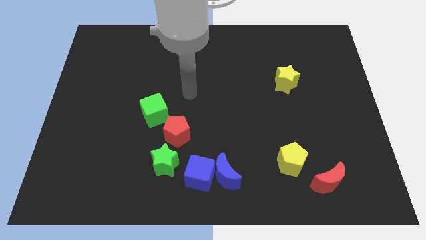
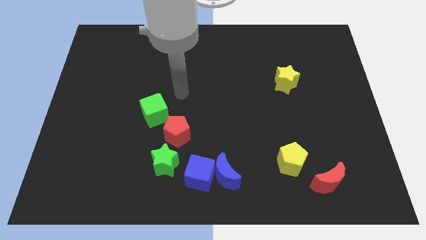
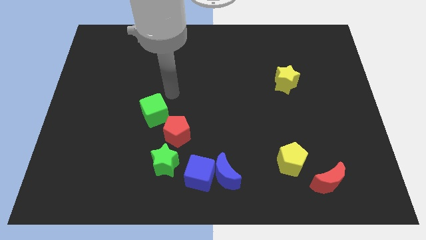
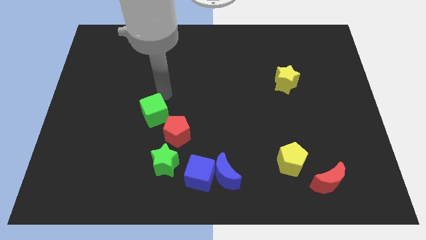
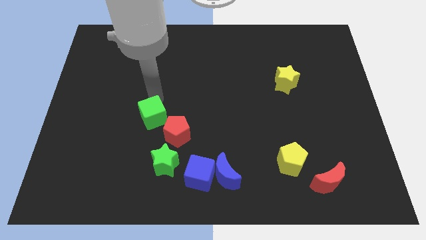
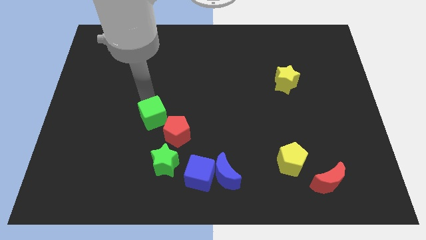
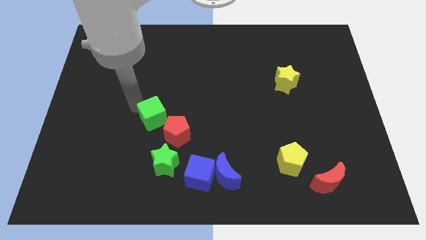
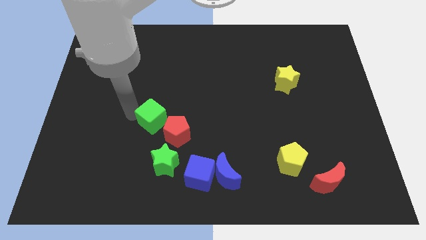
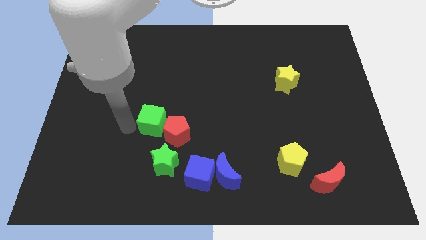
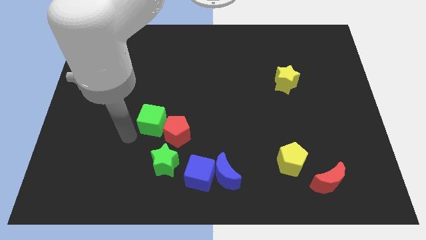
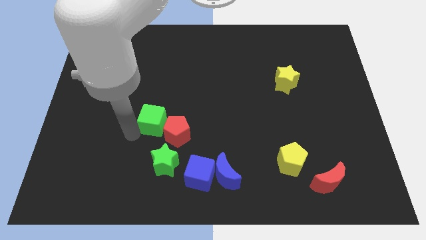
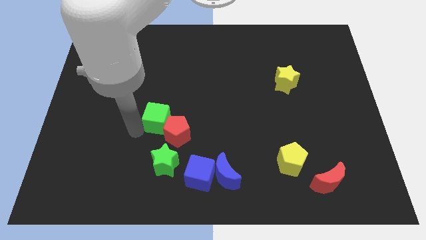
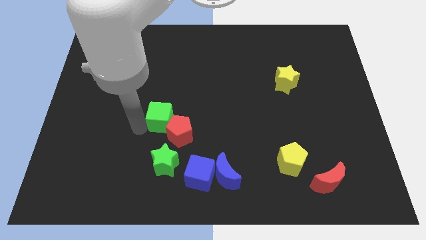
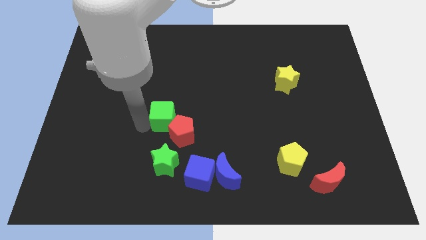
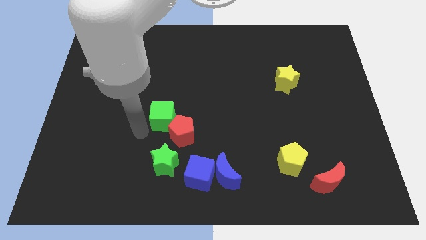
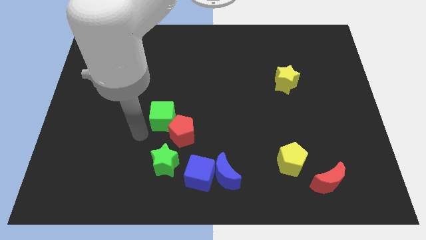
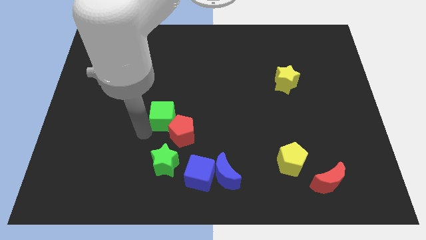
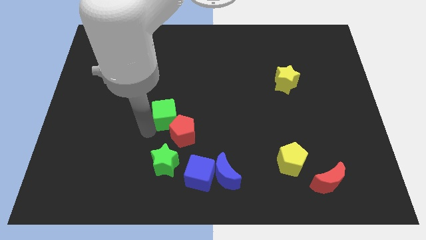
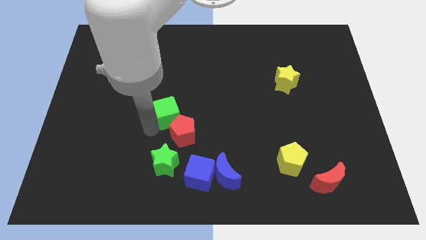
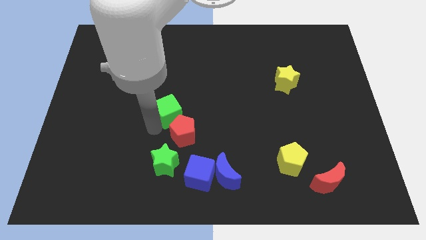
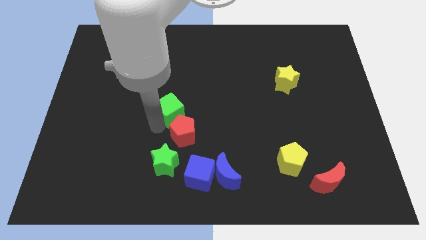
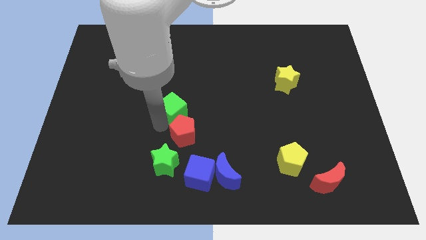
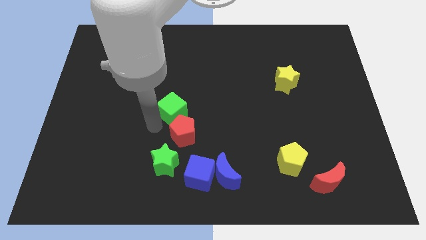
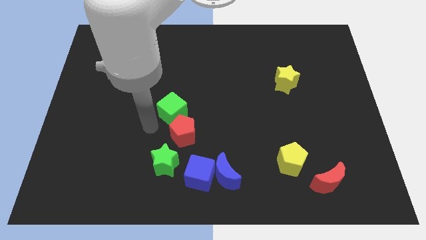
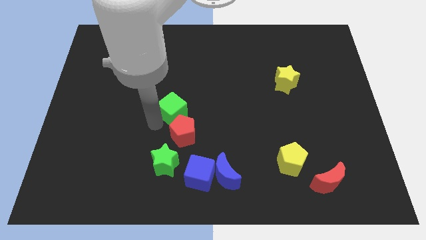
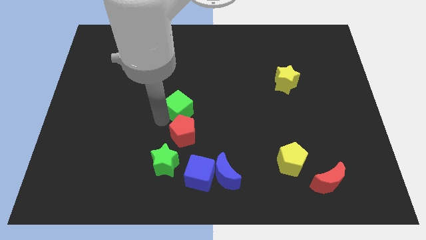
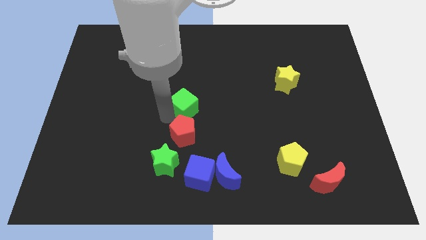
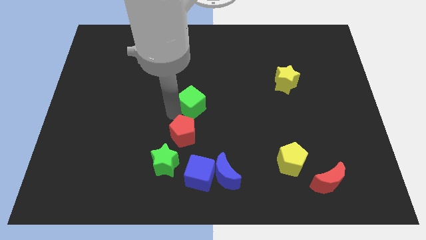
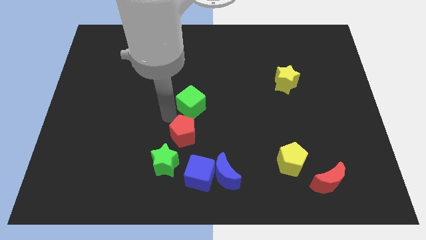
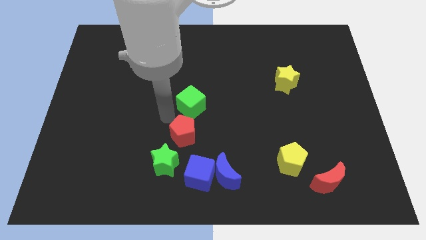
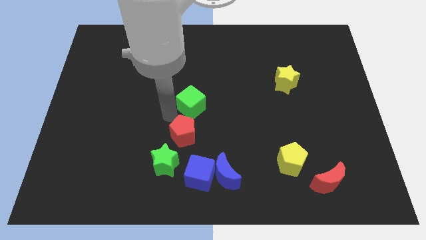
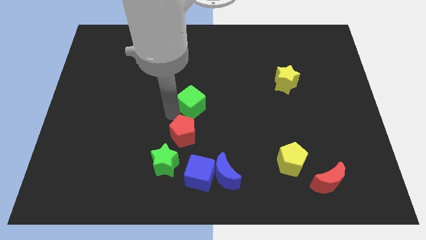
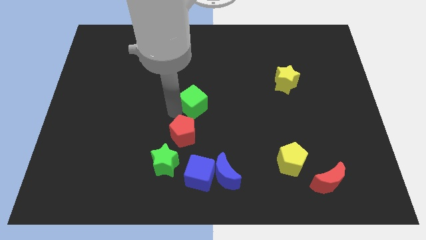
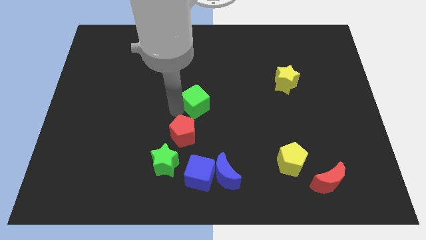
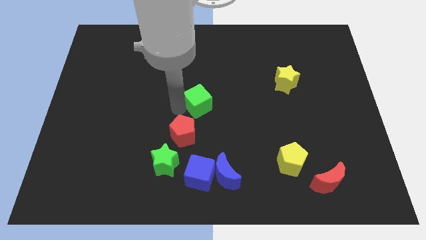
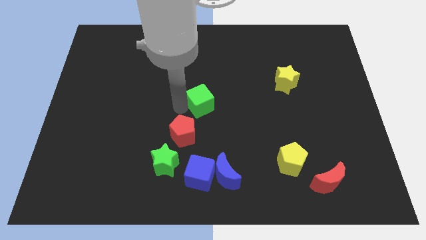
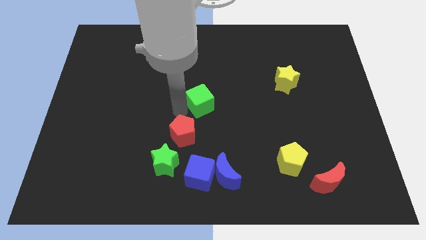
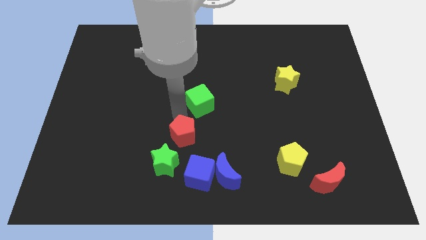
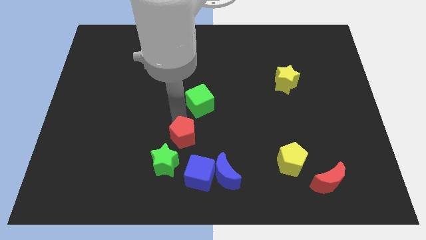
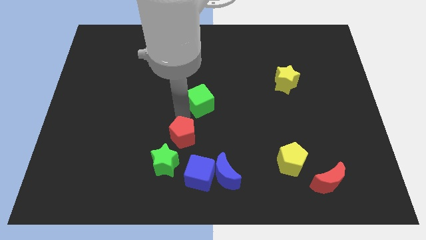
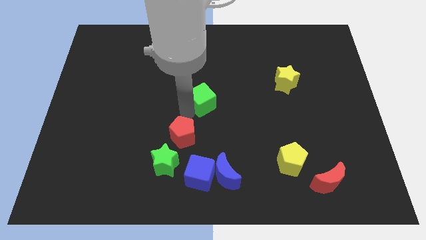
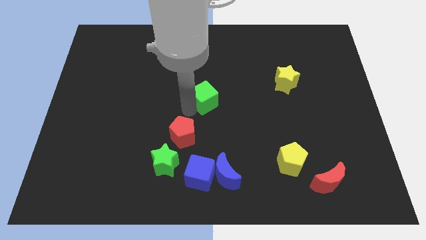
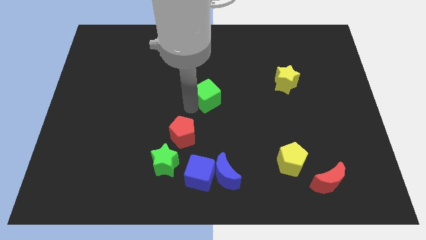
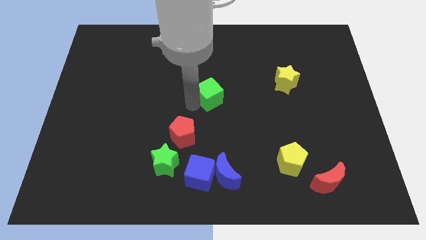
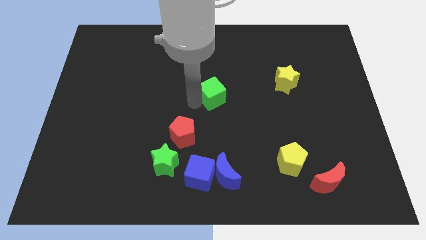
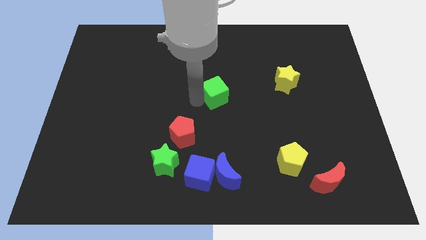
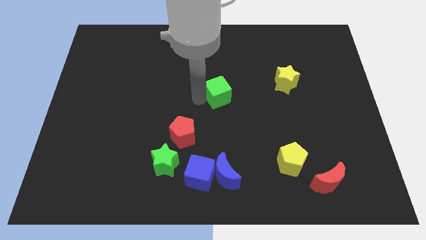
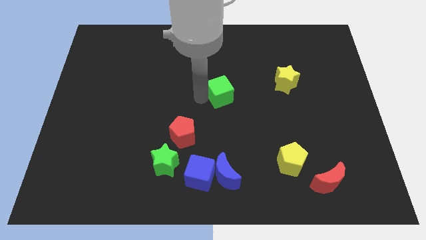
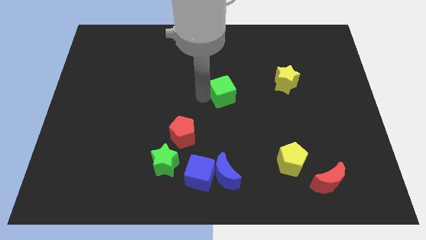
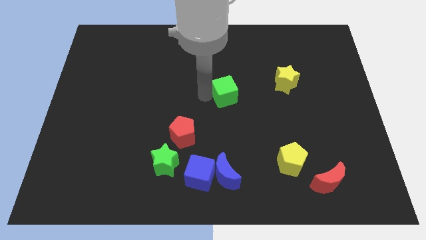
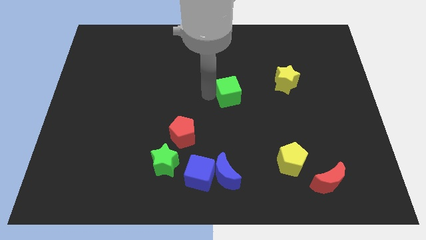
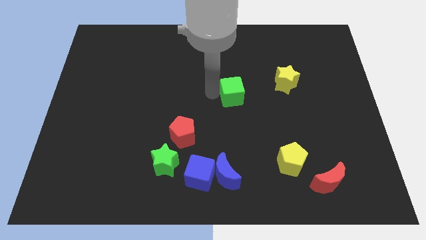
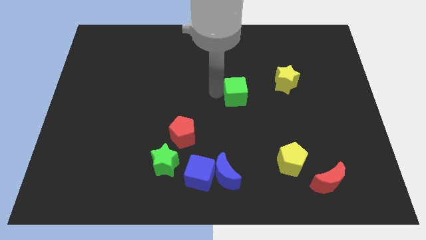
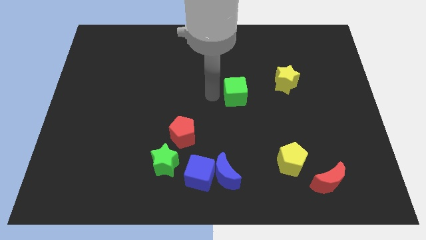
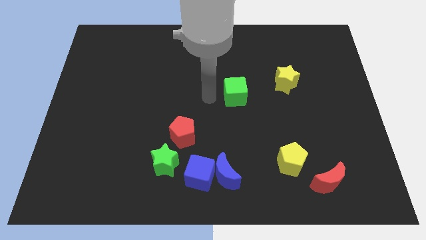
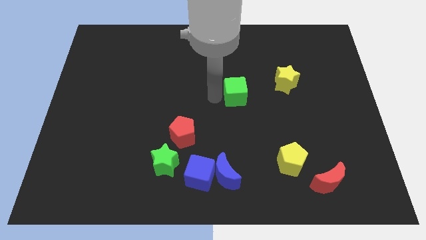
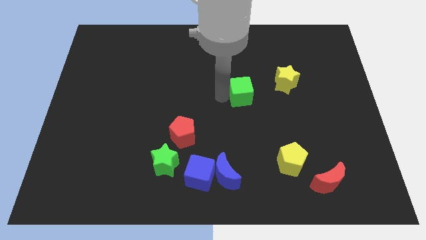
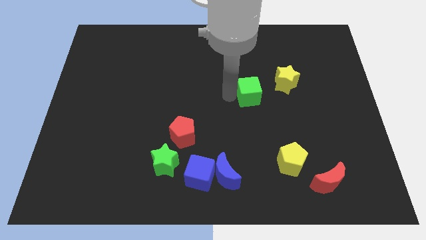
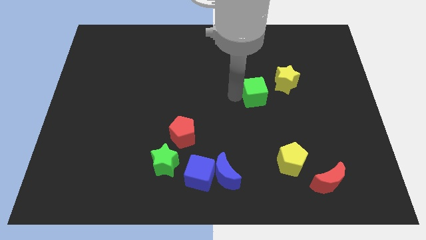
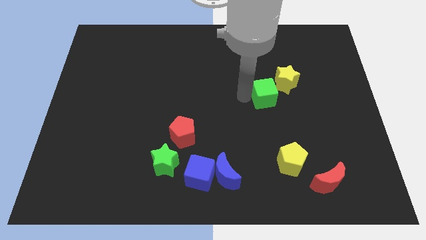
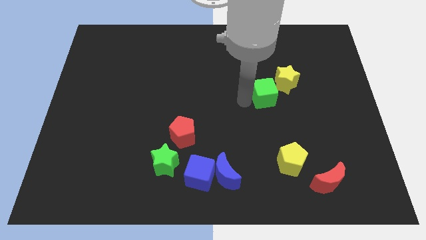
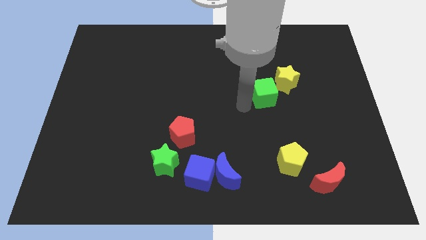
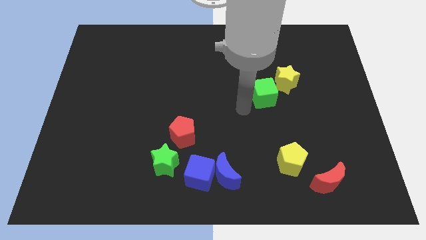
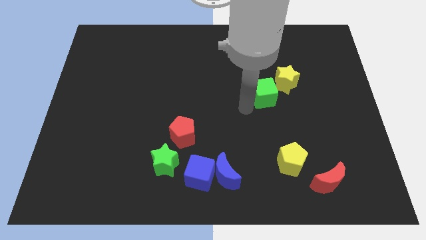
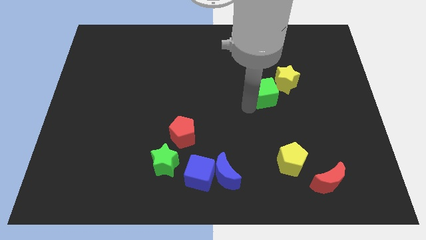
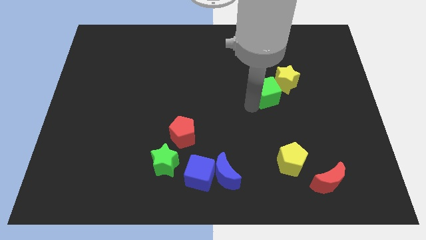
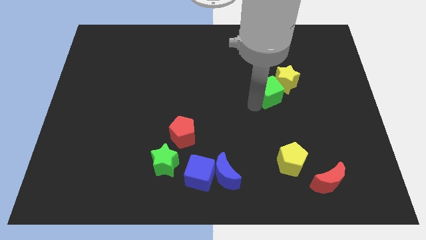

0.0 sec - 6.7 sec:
push the green cube next to the yellow star

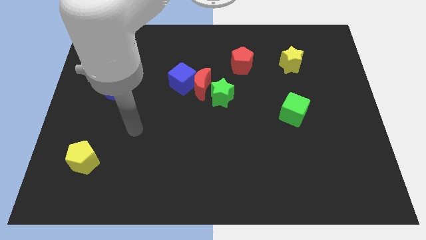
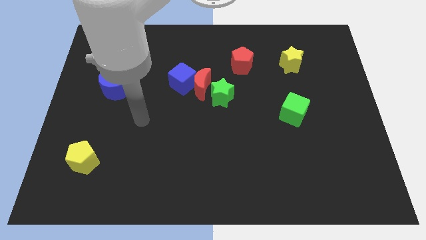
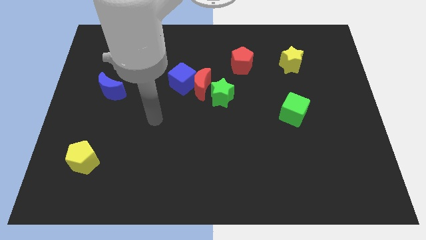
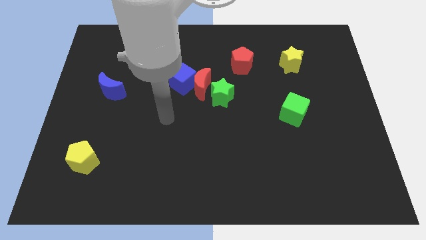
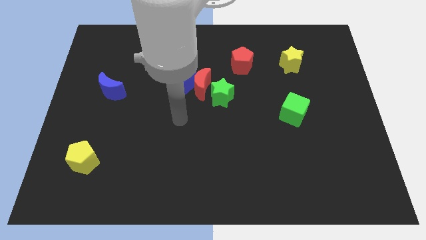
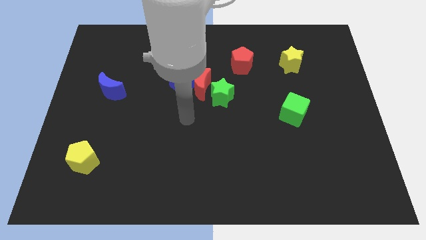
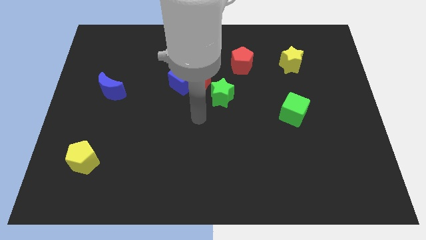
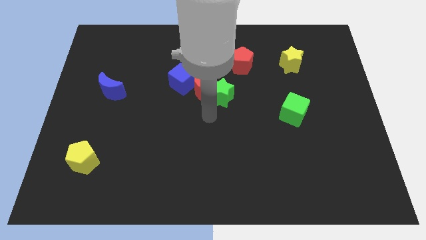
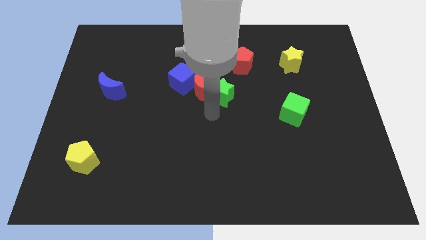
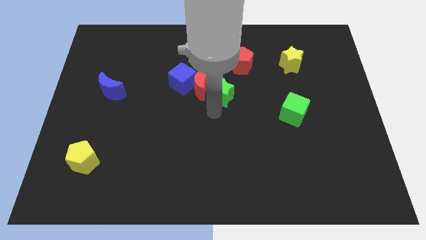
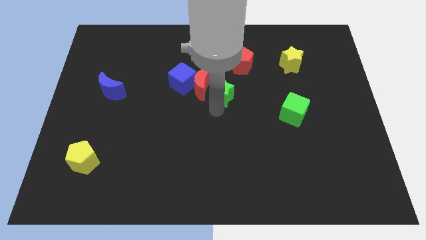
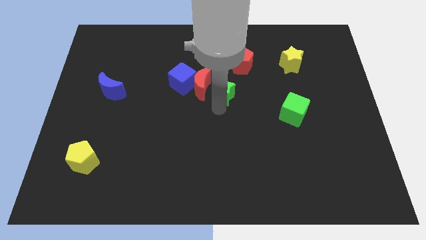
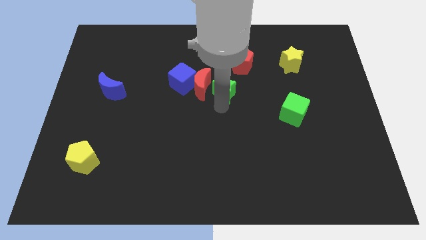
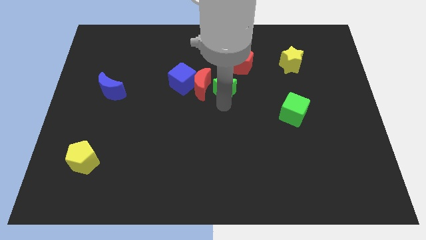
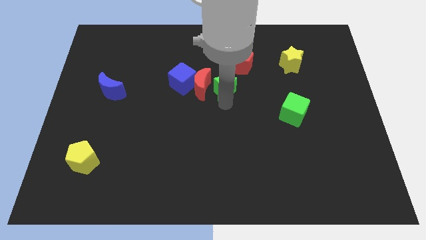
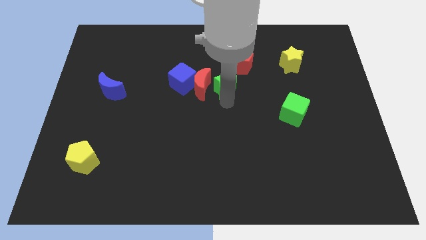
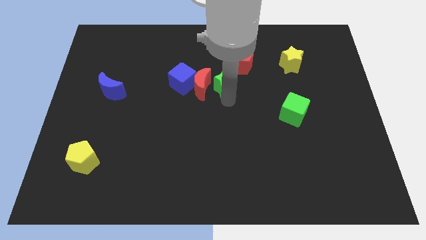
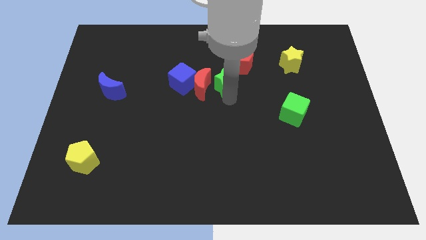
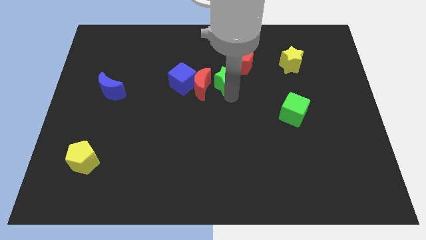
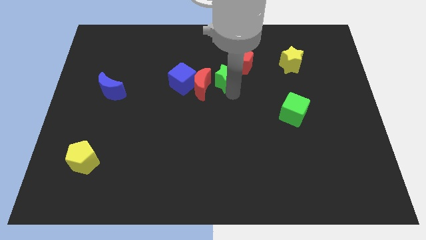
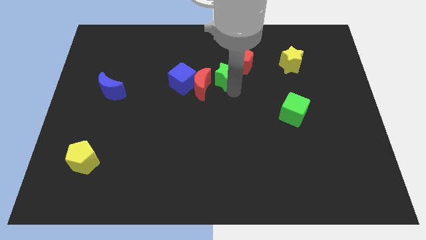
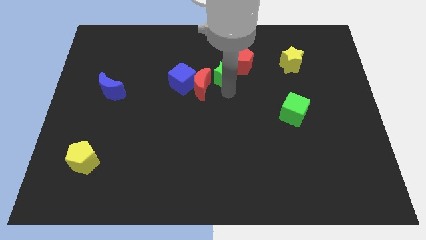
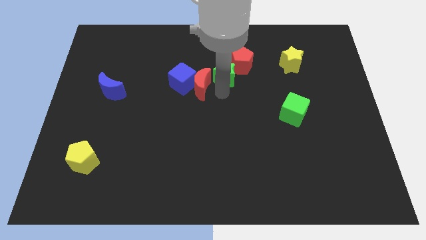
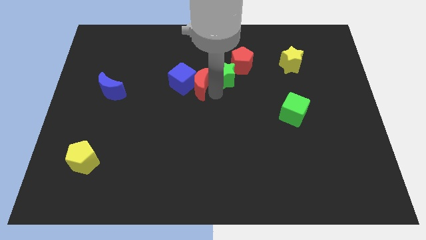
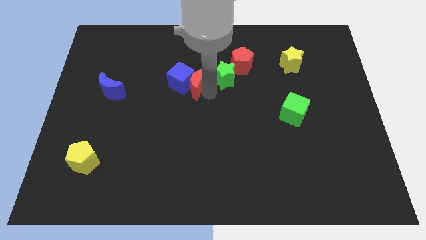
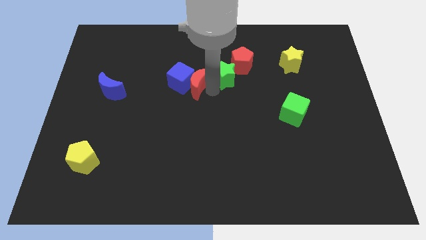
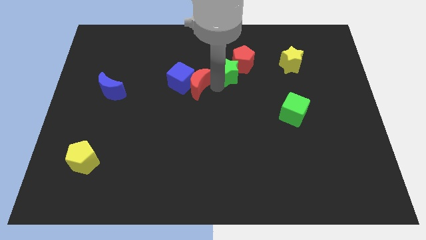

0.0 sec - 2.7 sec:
move the green star to the red pentagon
